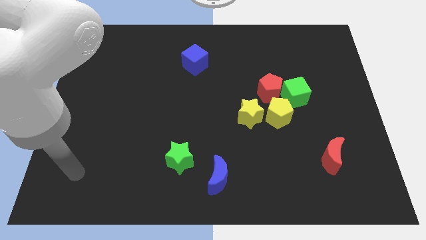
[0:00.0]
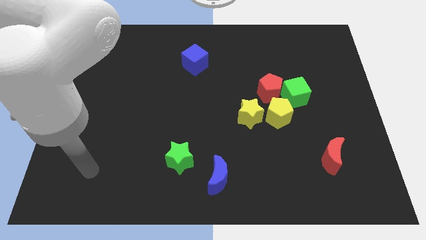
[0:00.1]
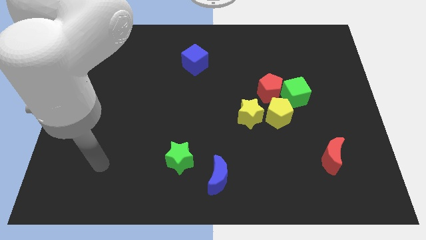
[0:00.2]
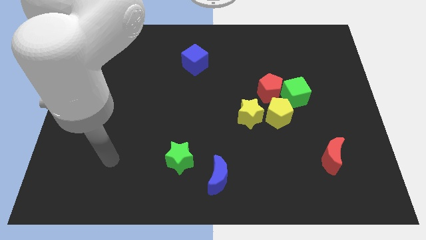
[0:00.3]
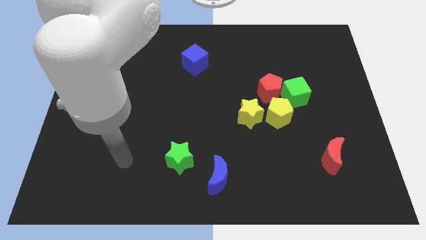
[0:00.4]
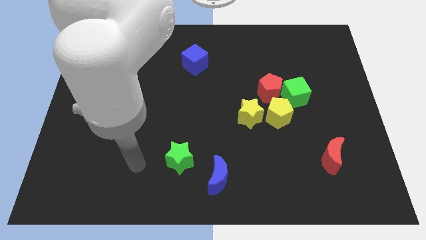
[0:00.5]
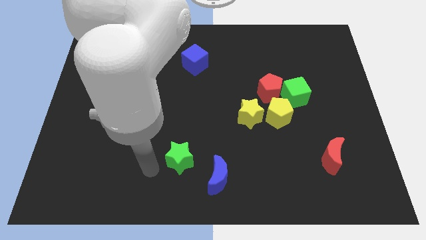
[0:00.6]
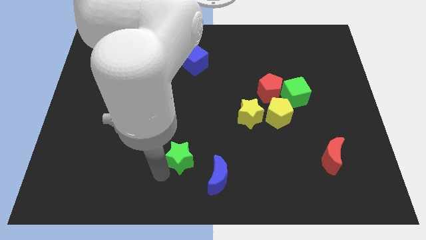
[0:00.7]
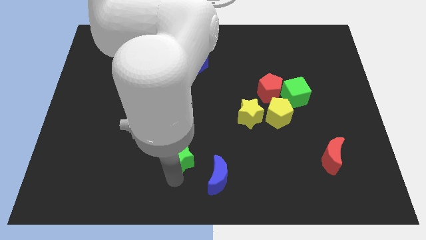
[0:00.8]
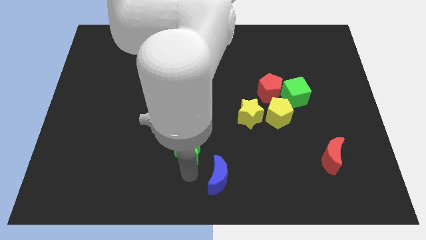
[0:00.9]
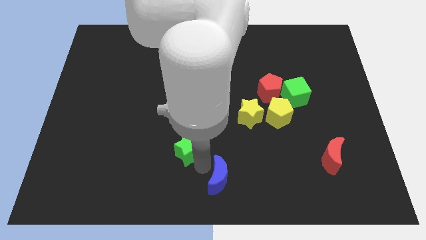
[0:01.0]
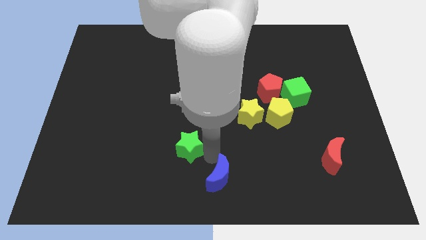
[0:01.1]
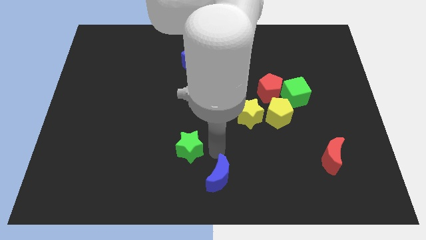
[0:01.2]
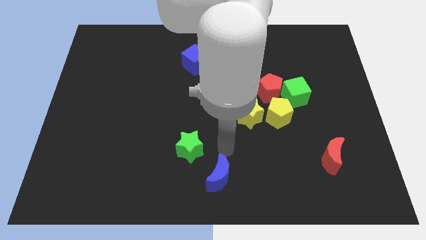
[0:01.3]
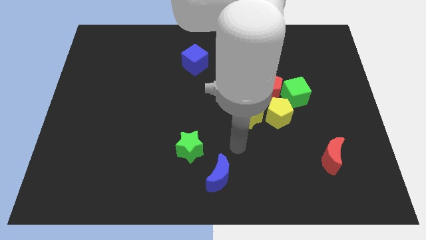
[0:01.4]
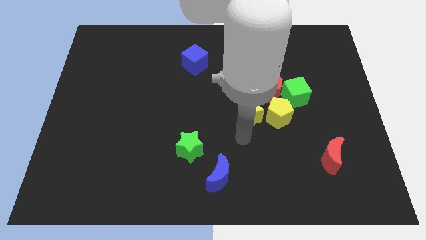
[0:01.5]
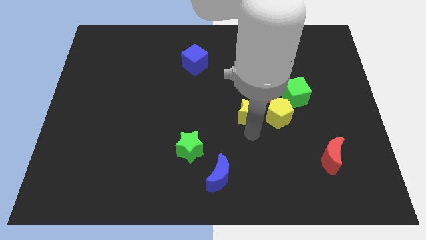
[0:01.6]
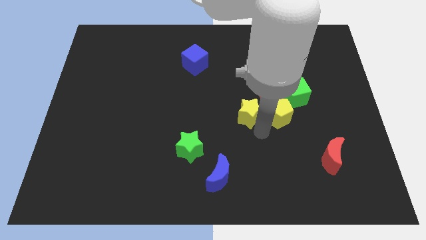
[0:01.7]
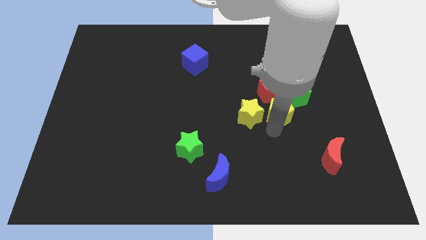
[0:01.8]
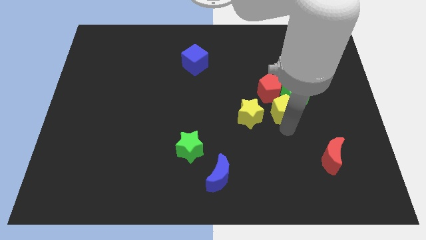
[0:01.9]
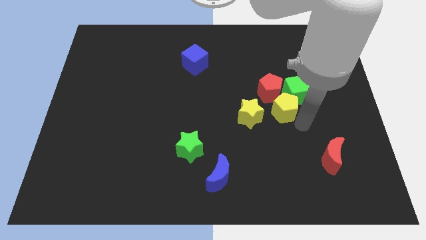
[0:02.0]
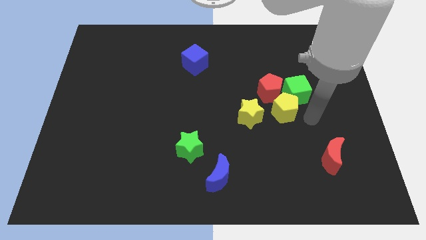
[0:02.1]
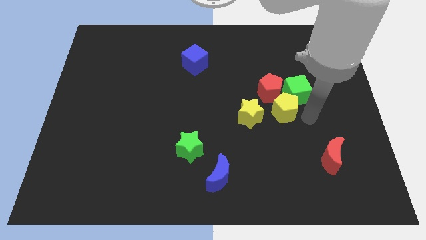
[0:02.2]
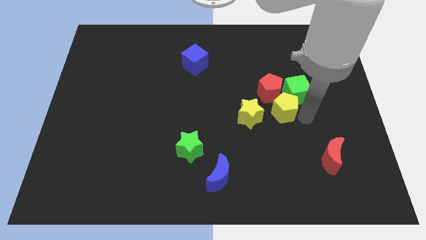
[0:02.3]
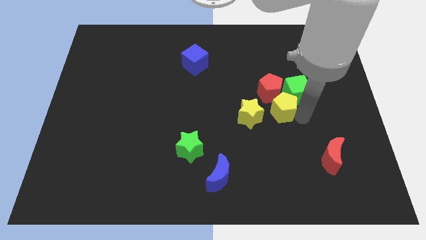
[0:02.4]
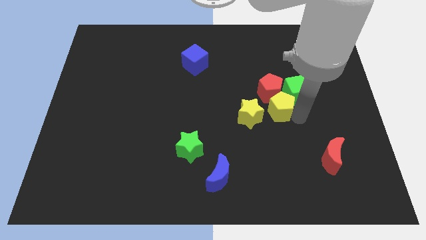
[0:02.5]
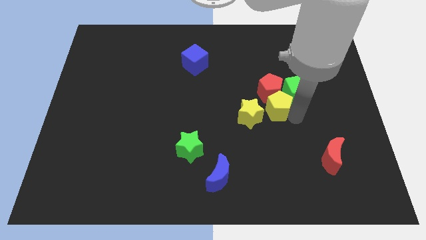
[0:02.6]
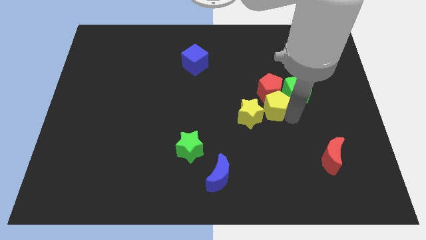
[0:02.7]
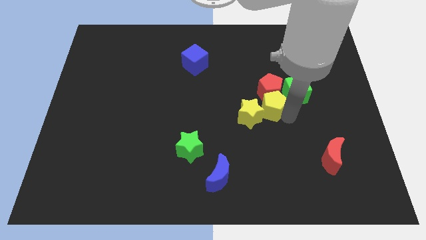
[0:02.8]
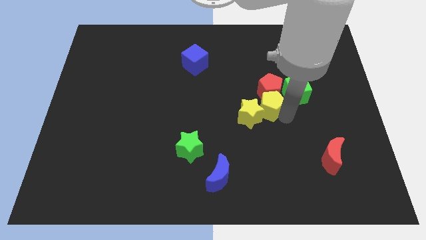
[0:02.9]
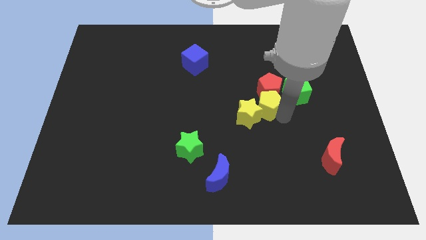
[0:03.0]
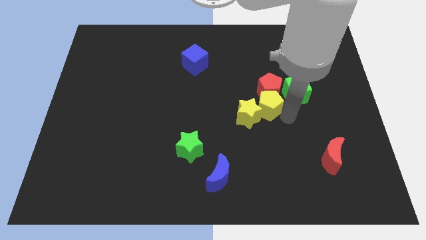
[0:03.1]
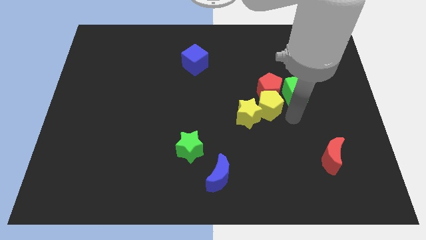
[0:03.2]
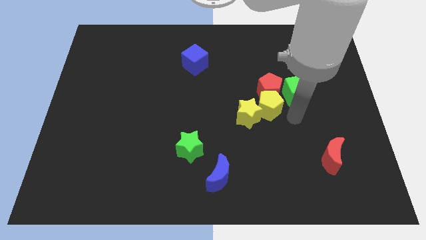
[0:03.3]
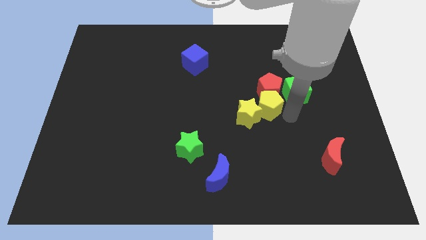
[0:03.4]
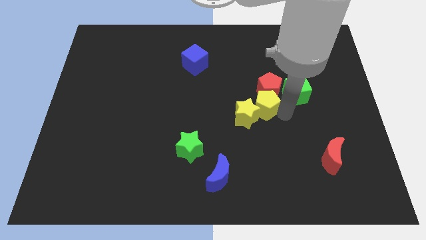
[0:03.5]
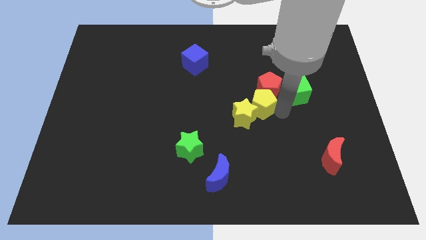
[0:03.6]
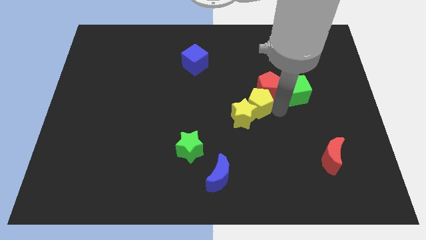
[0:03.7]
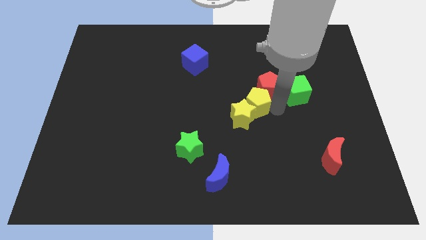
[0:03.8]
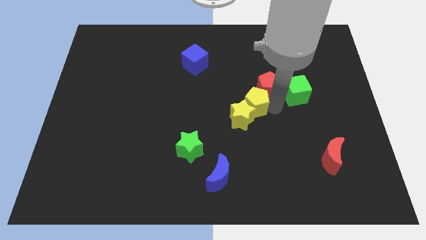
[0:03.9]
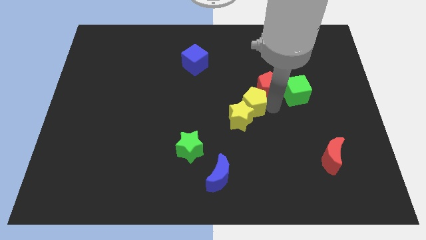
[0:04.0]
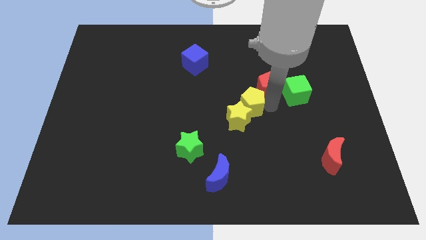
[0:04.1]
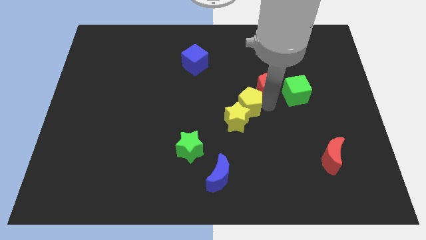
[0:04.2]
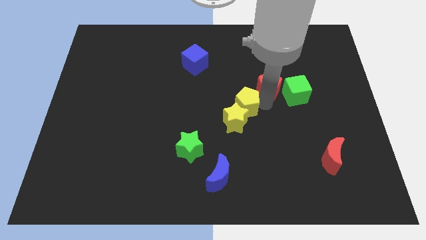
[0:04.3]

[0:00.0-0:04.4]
slightly move the yellow pentagon to the left

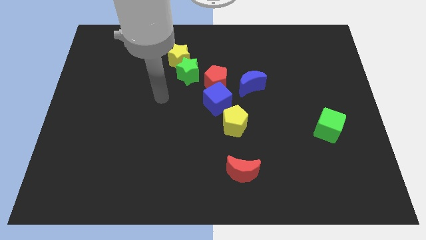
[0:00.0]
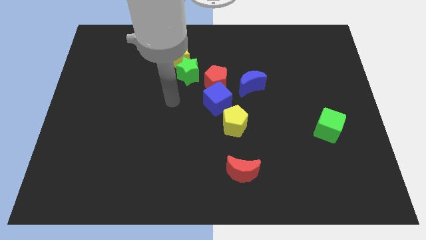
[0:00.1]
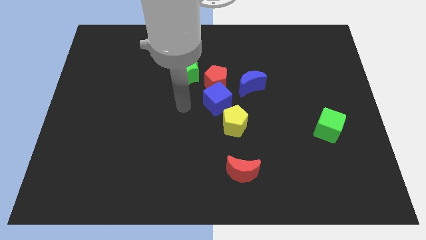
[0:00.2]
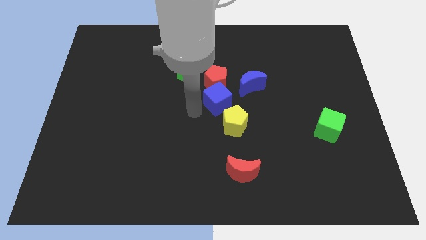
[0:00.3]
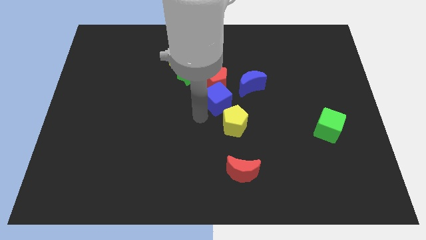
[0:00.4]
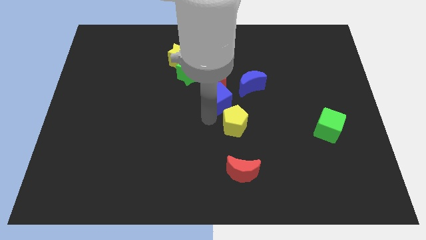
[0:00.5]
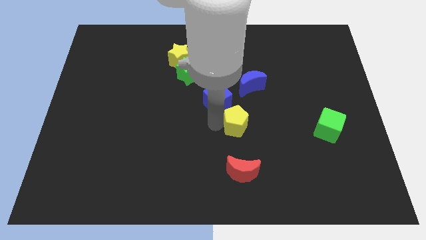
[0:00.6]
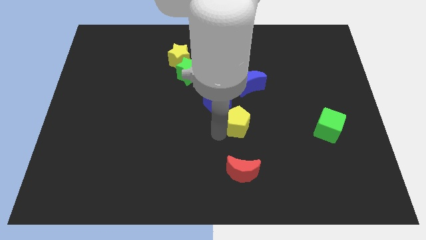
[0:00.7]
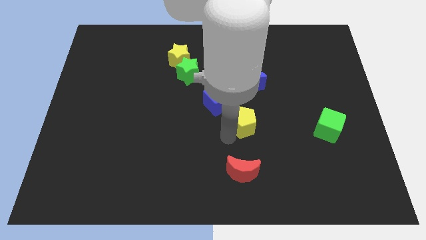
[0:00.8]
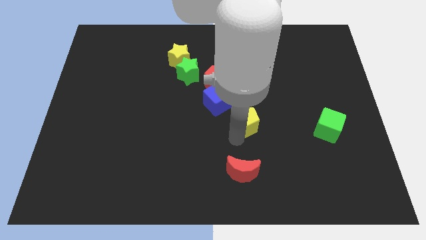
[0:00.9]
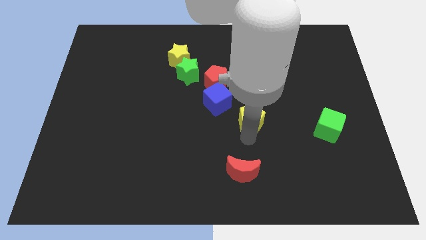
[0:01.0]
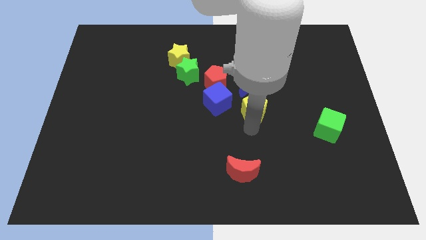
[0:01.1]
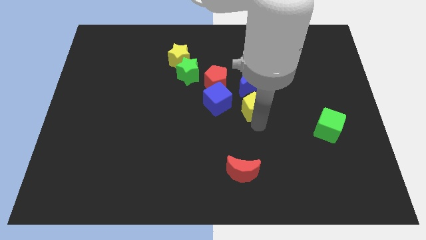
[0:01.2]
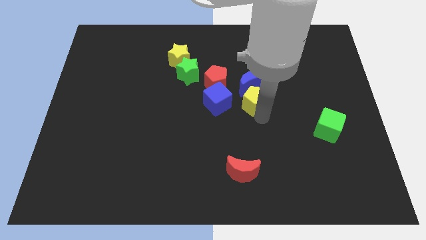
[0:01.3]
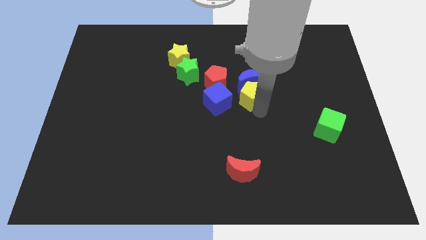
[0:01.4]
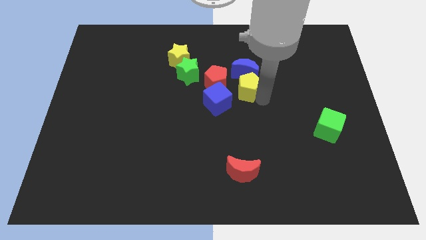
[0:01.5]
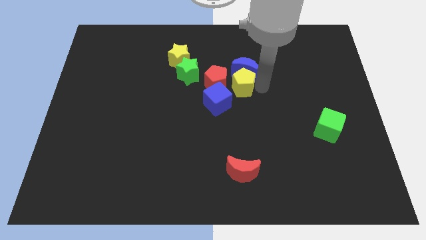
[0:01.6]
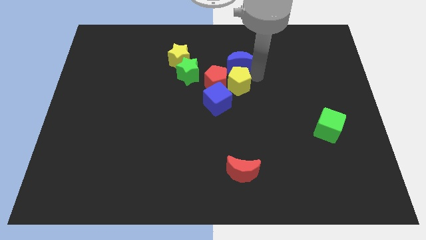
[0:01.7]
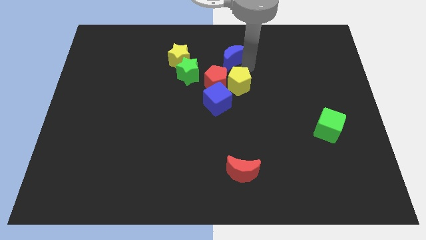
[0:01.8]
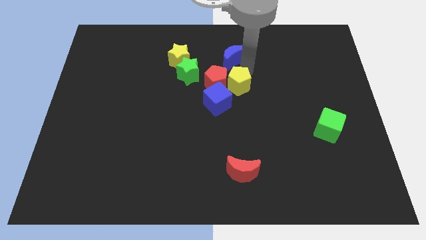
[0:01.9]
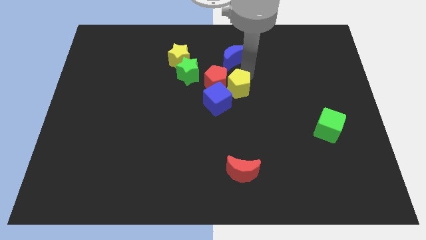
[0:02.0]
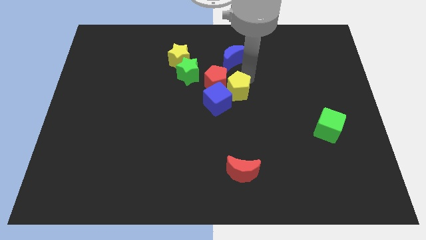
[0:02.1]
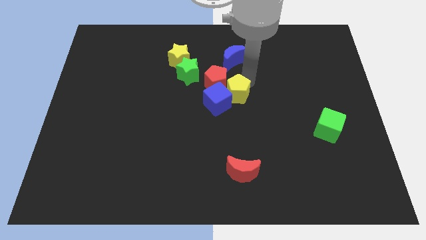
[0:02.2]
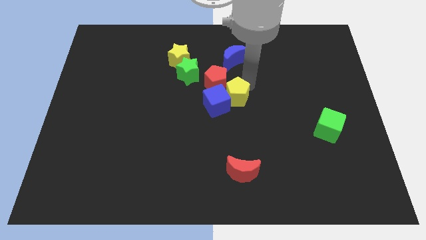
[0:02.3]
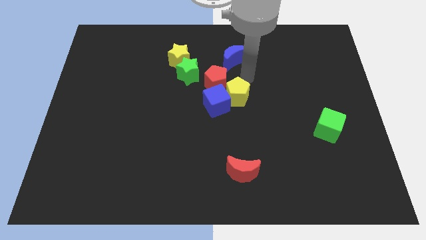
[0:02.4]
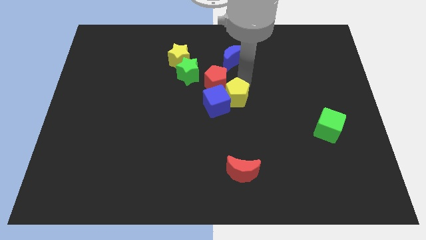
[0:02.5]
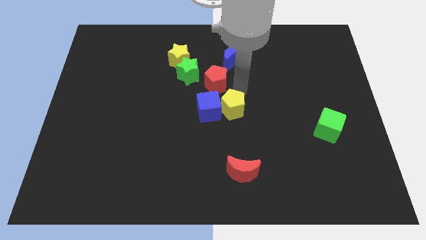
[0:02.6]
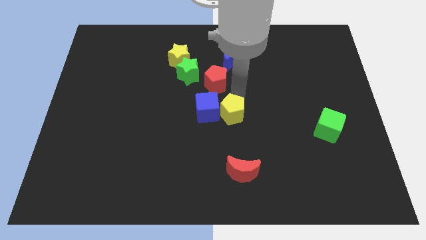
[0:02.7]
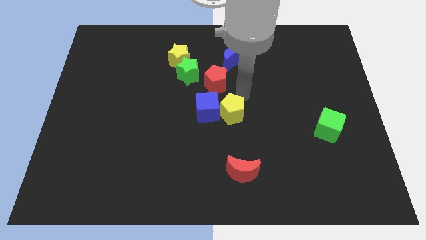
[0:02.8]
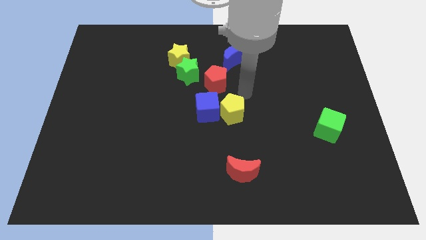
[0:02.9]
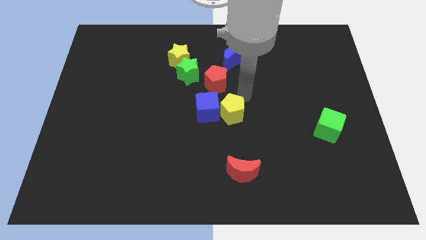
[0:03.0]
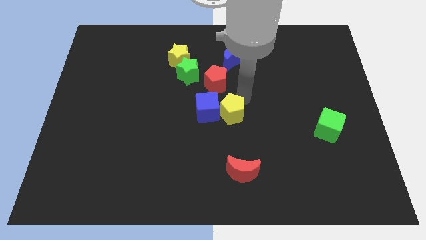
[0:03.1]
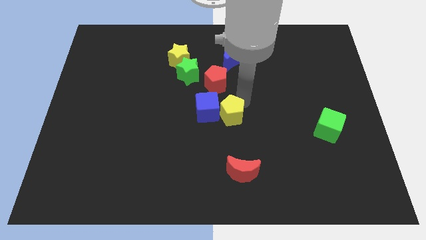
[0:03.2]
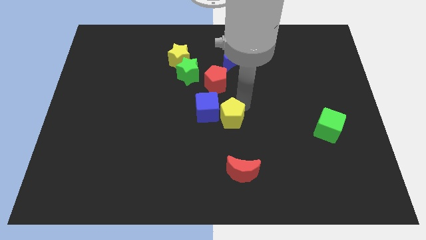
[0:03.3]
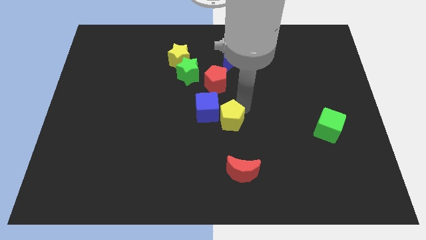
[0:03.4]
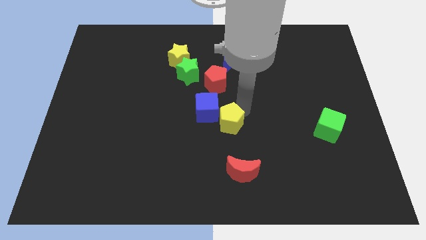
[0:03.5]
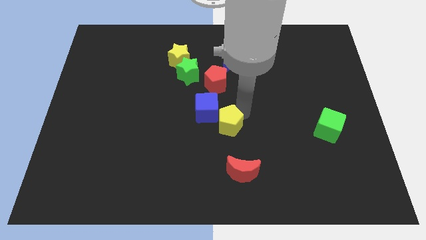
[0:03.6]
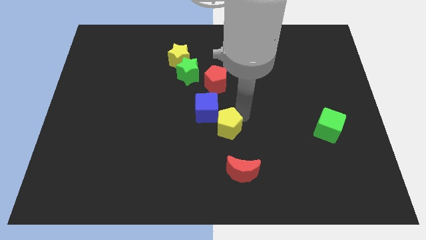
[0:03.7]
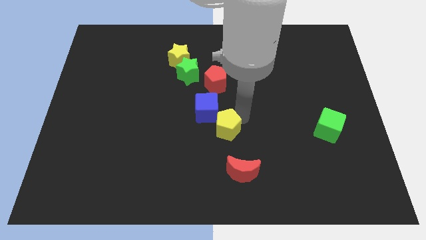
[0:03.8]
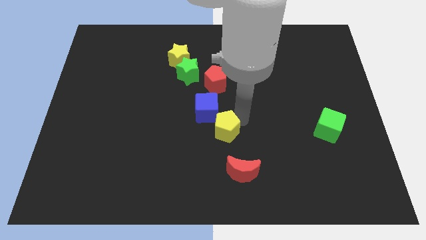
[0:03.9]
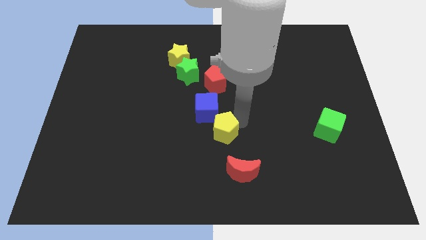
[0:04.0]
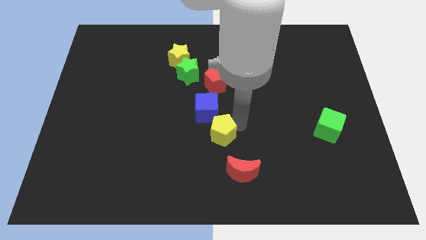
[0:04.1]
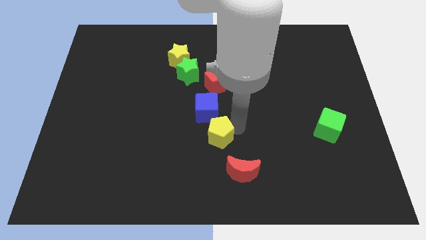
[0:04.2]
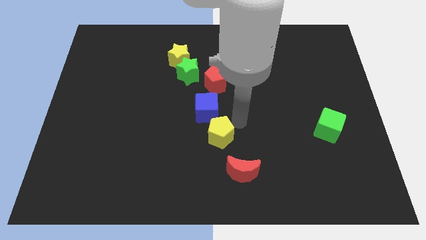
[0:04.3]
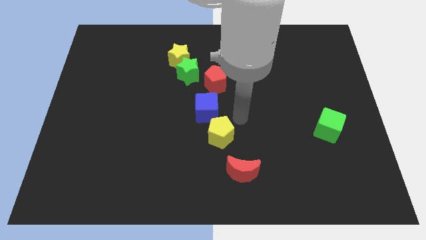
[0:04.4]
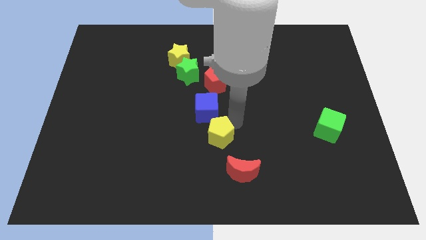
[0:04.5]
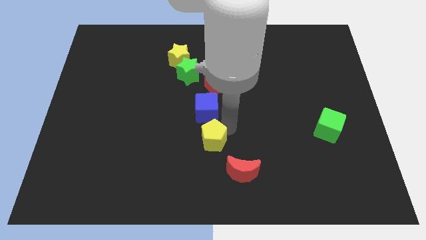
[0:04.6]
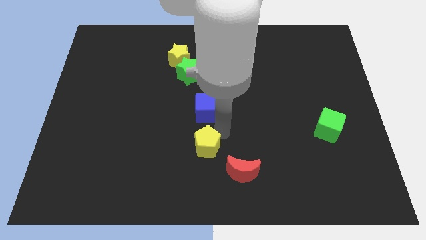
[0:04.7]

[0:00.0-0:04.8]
move the yellow pentagon downwards and then left a little bit
